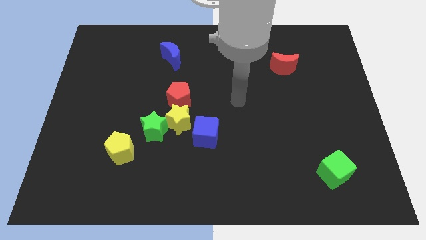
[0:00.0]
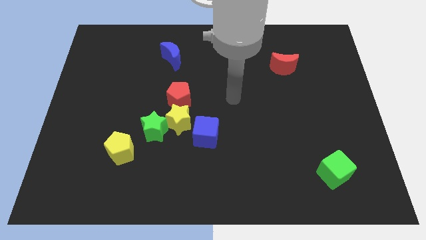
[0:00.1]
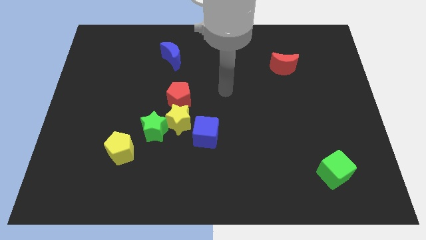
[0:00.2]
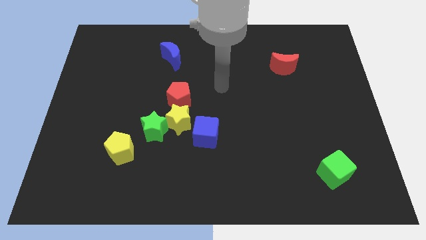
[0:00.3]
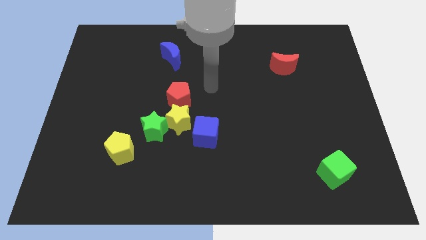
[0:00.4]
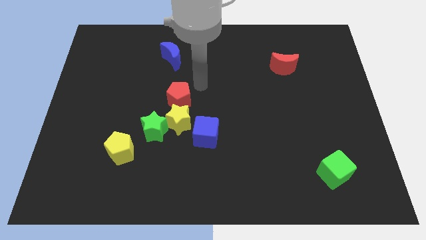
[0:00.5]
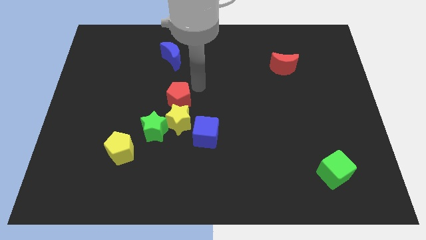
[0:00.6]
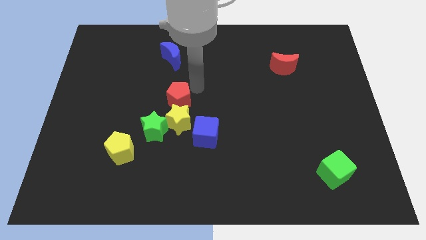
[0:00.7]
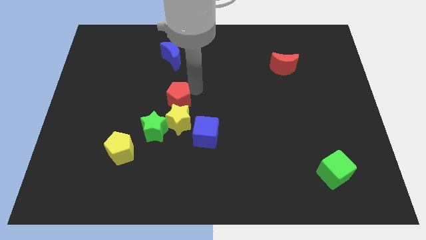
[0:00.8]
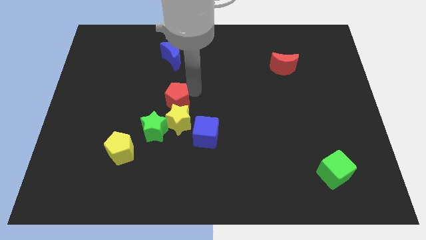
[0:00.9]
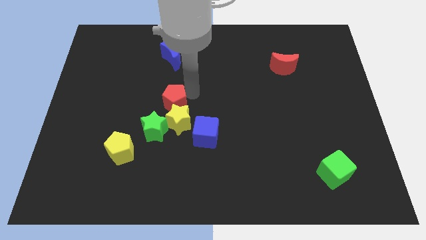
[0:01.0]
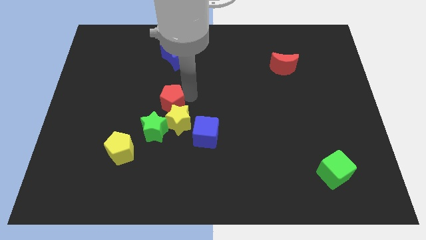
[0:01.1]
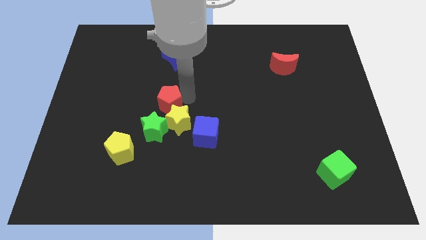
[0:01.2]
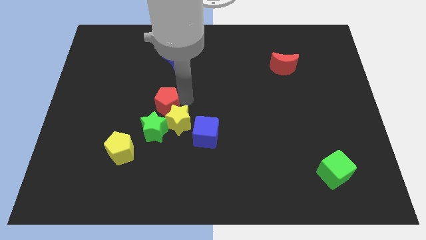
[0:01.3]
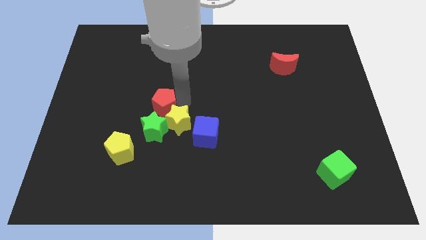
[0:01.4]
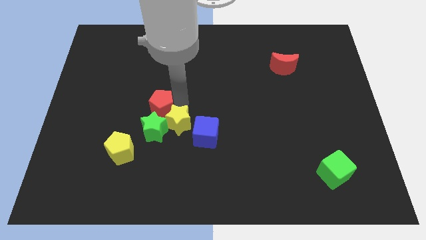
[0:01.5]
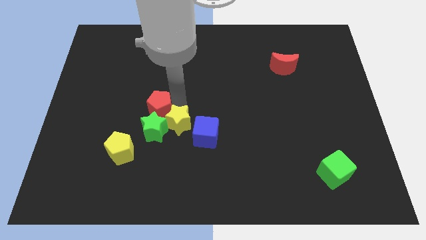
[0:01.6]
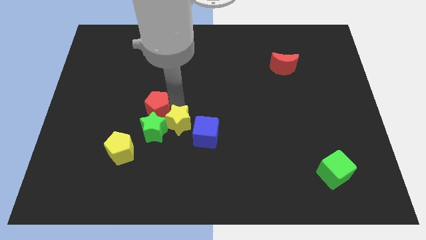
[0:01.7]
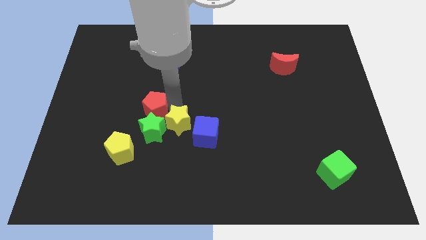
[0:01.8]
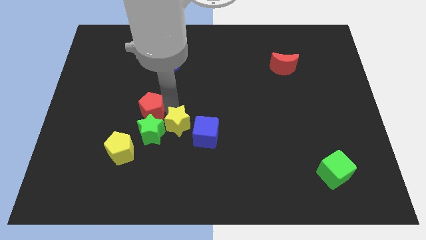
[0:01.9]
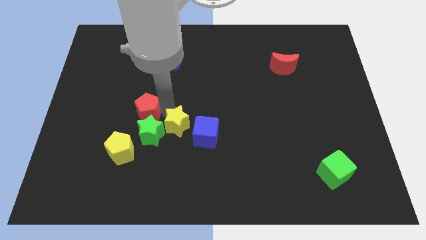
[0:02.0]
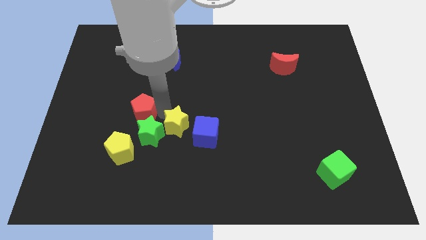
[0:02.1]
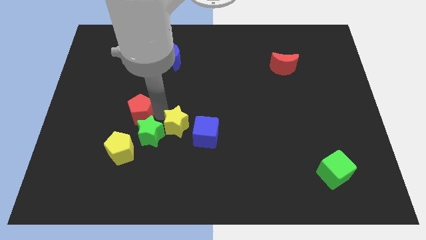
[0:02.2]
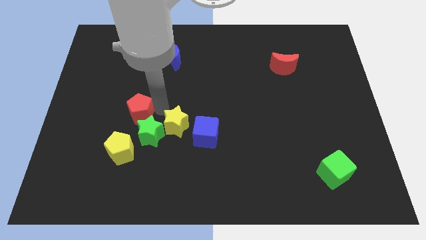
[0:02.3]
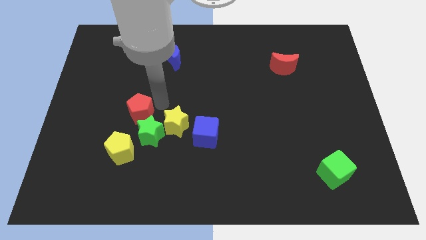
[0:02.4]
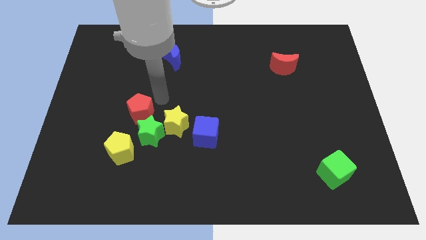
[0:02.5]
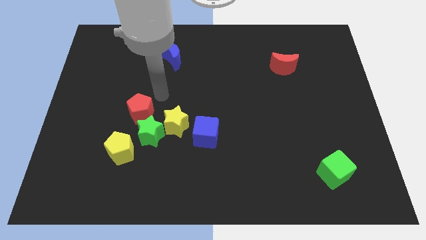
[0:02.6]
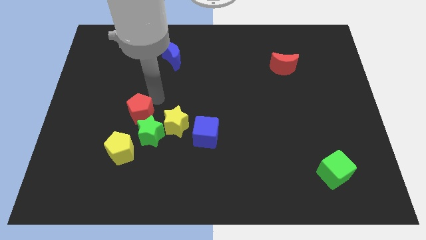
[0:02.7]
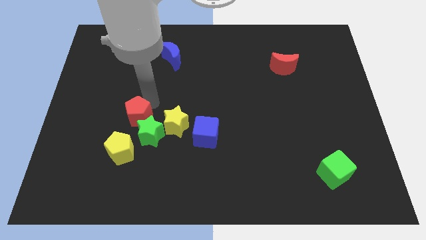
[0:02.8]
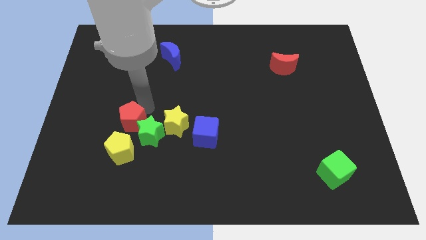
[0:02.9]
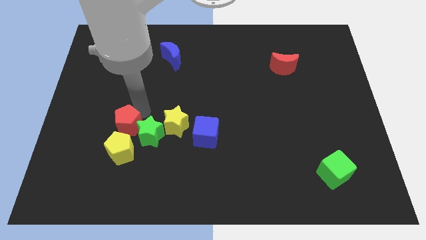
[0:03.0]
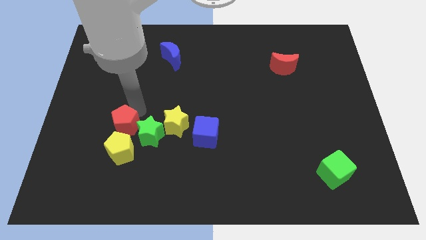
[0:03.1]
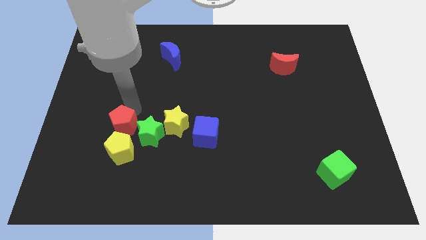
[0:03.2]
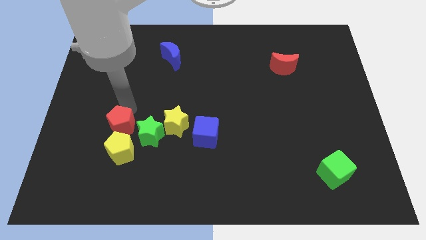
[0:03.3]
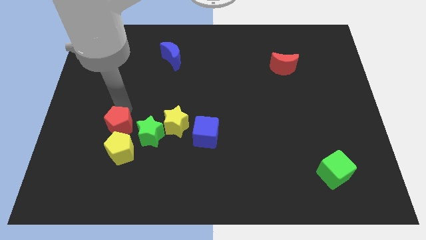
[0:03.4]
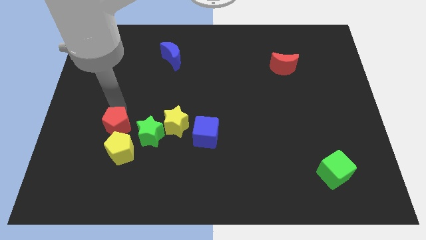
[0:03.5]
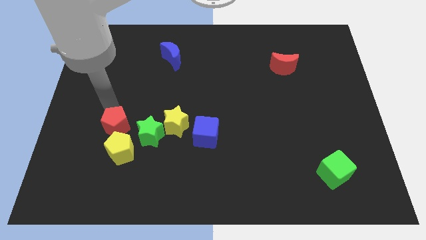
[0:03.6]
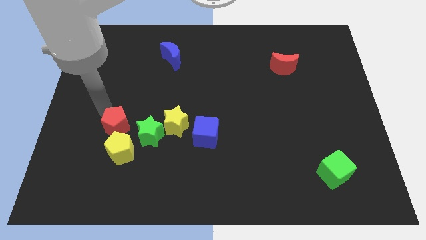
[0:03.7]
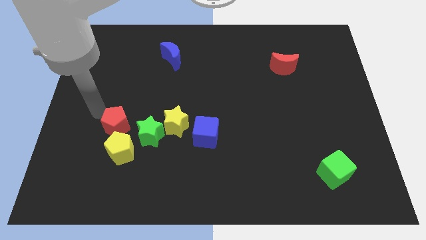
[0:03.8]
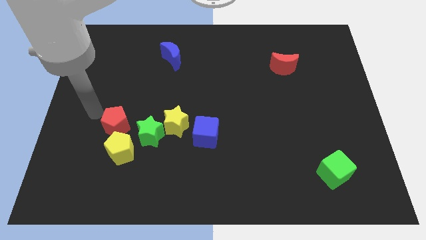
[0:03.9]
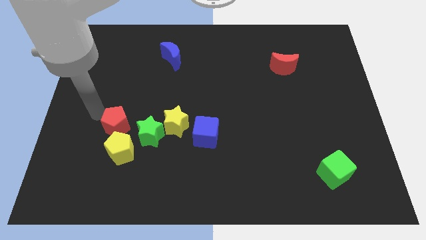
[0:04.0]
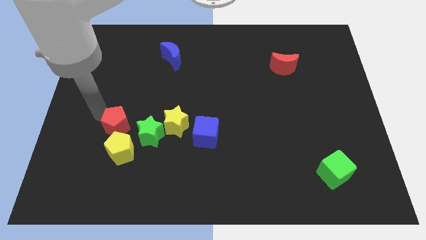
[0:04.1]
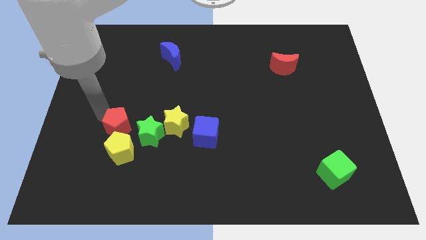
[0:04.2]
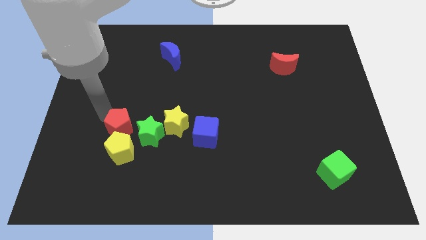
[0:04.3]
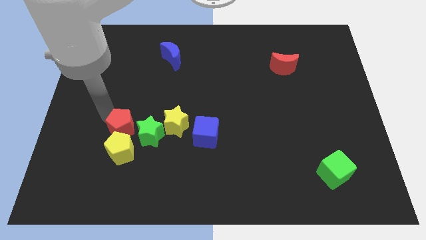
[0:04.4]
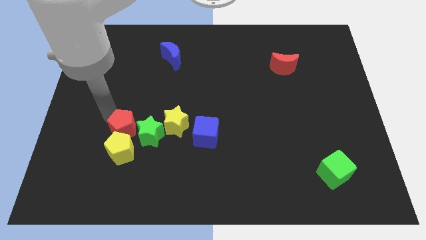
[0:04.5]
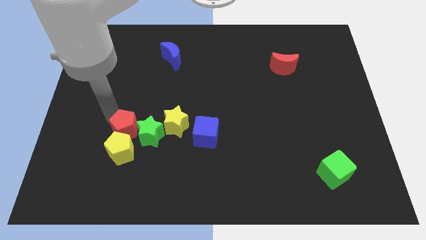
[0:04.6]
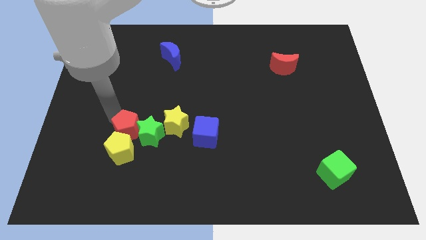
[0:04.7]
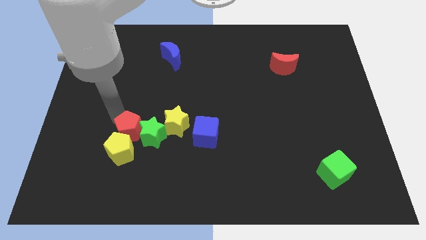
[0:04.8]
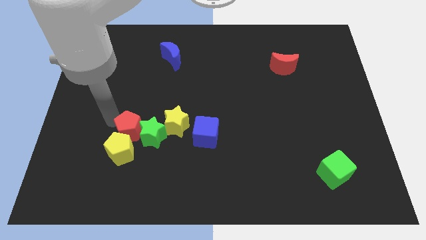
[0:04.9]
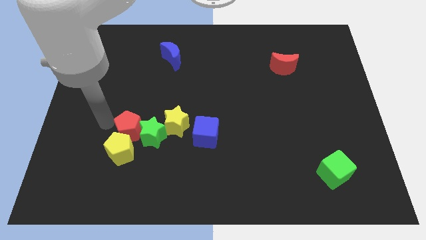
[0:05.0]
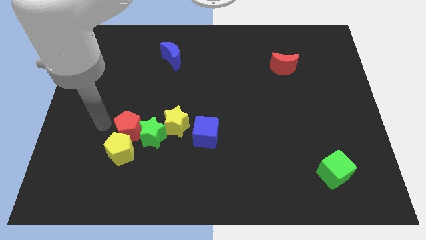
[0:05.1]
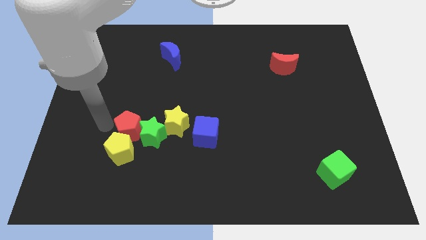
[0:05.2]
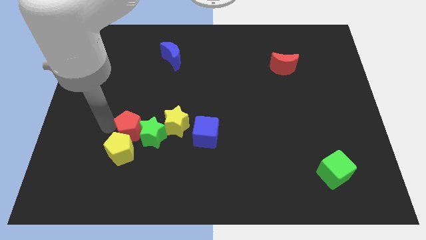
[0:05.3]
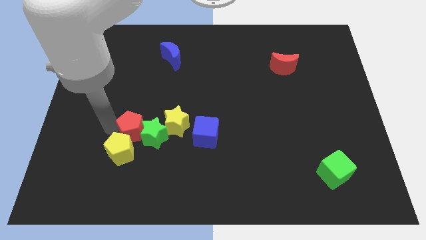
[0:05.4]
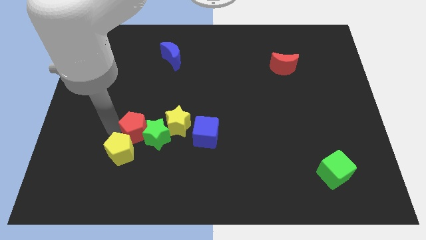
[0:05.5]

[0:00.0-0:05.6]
put the red pentagon left of the blue cube

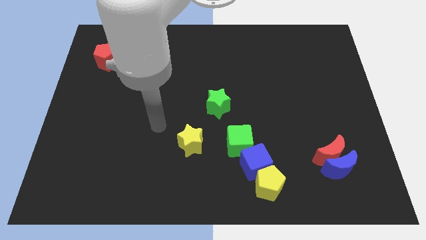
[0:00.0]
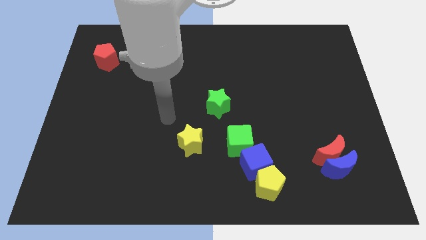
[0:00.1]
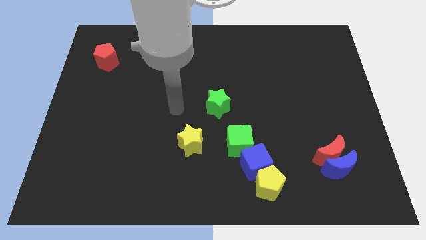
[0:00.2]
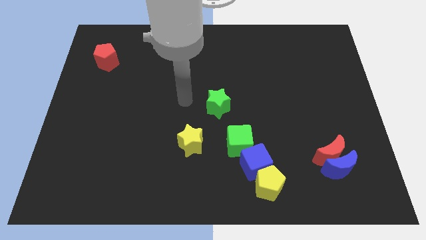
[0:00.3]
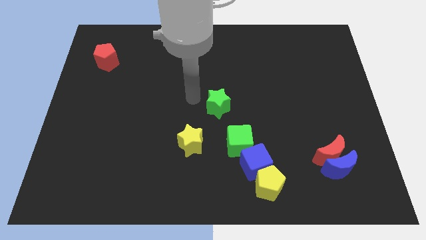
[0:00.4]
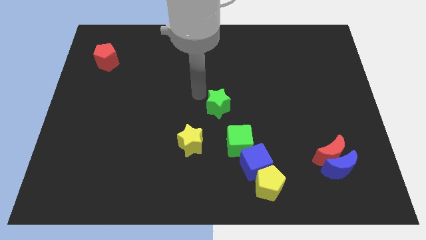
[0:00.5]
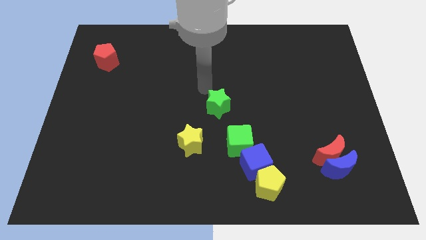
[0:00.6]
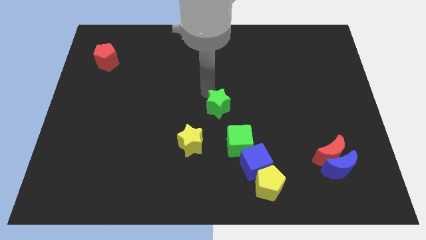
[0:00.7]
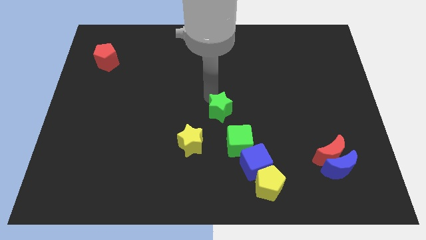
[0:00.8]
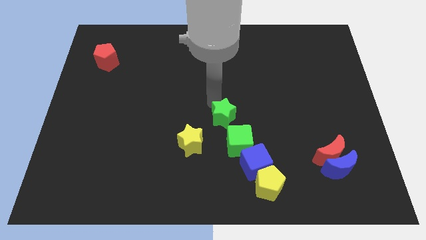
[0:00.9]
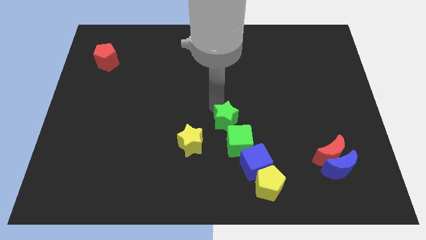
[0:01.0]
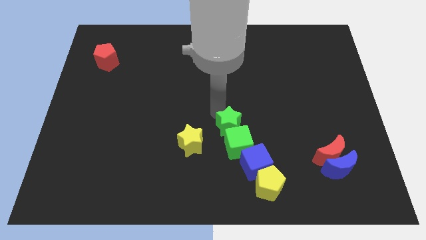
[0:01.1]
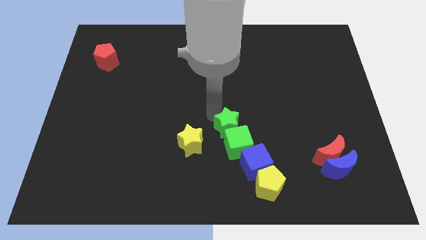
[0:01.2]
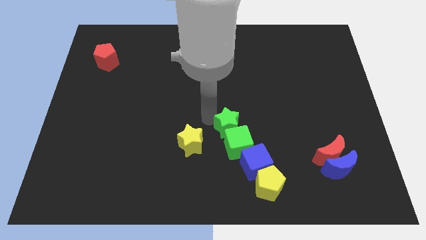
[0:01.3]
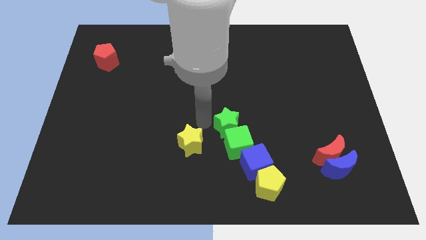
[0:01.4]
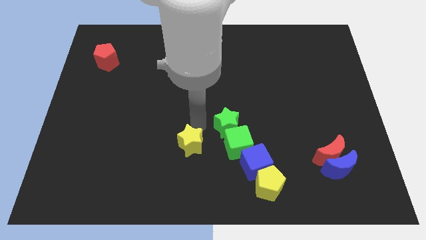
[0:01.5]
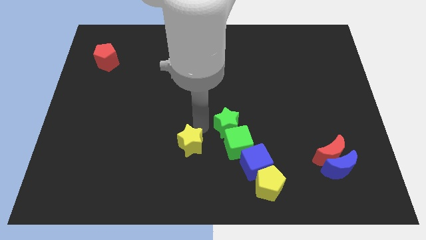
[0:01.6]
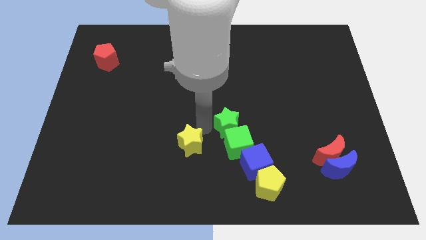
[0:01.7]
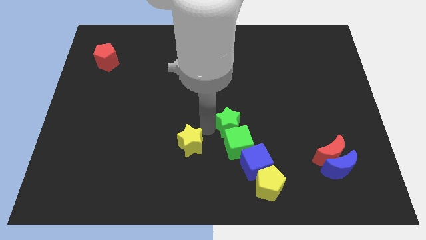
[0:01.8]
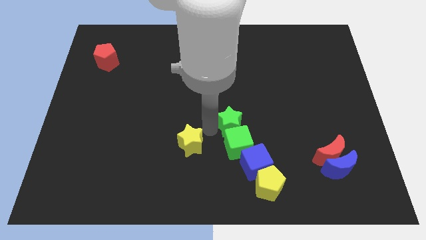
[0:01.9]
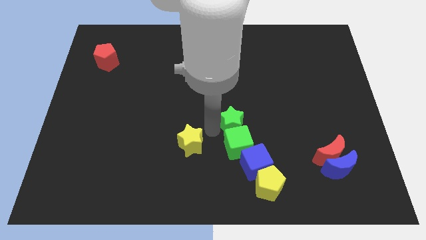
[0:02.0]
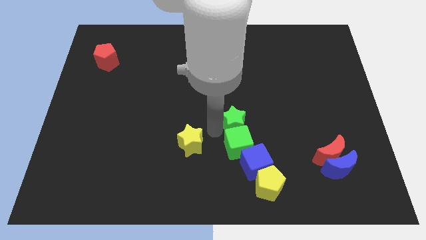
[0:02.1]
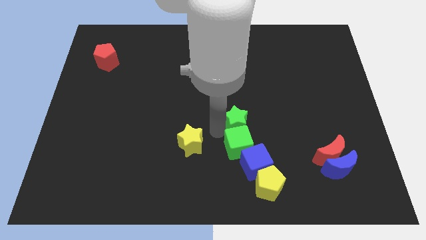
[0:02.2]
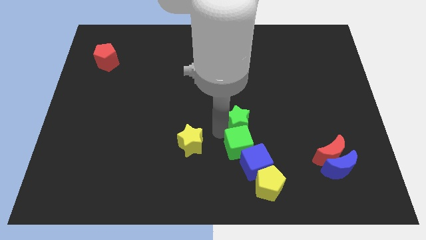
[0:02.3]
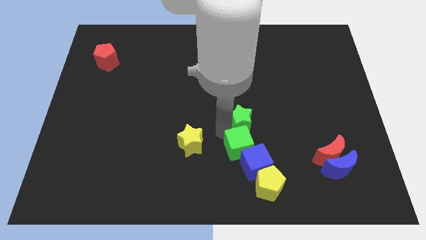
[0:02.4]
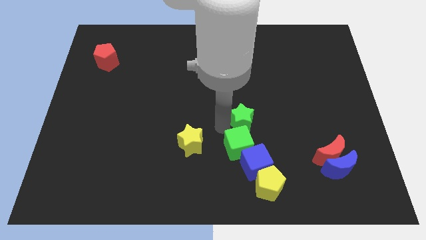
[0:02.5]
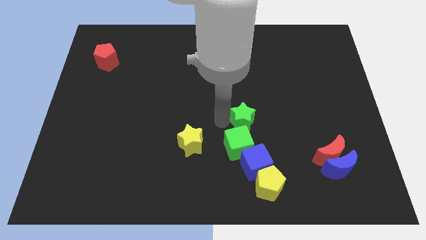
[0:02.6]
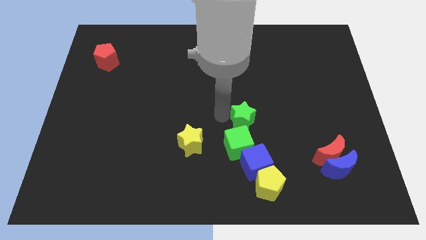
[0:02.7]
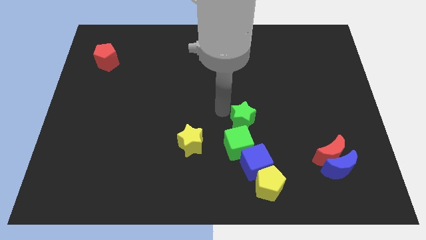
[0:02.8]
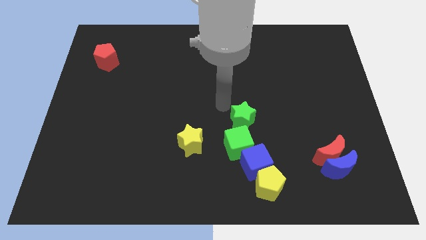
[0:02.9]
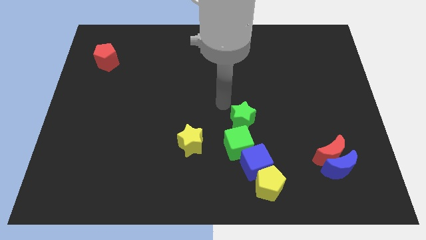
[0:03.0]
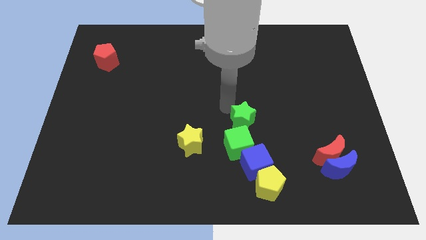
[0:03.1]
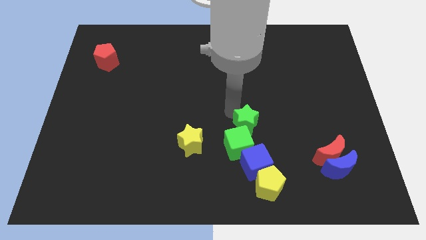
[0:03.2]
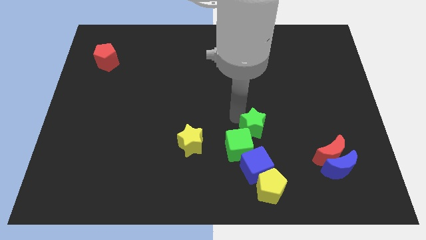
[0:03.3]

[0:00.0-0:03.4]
put the green star to the top side of the yellow pentagon
